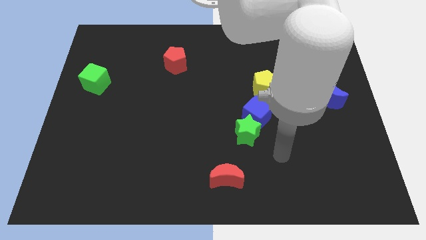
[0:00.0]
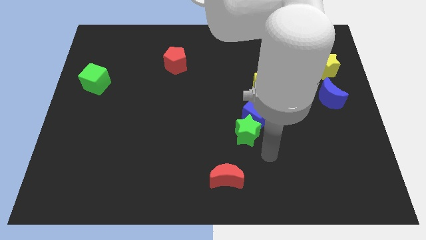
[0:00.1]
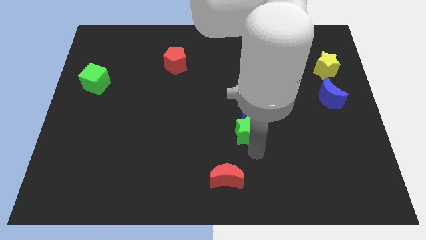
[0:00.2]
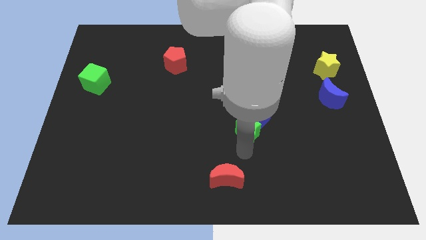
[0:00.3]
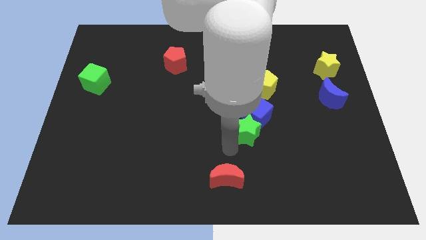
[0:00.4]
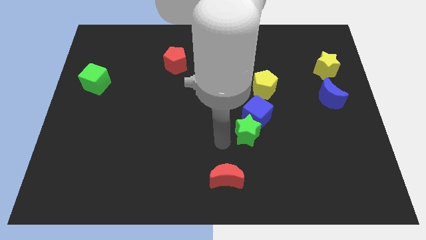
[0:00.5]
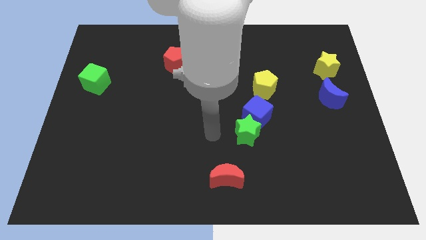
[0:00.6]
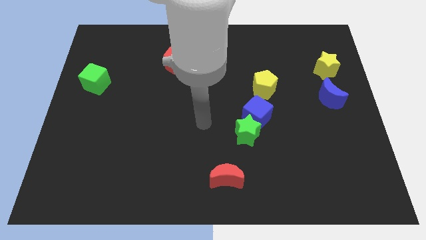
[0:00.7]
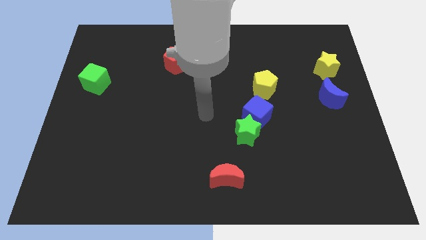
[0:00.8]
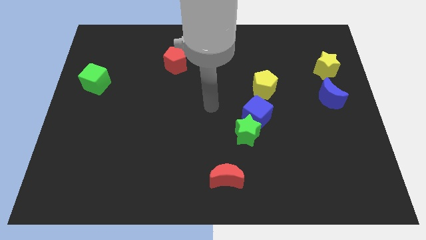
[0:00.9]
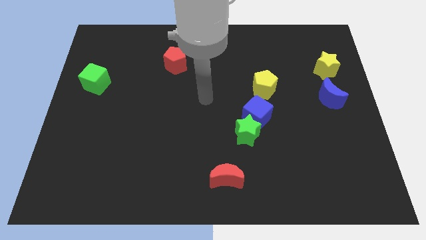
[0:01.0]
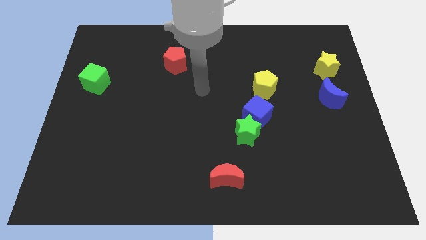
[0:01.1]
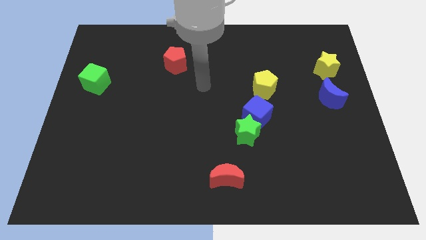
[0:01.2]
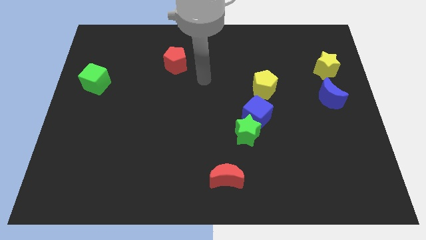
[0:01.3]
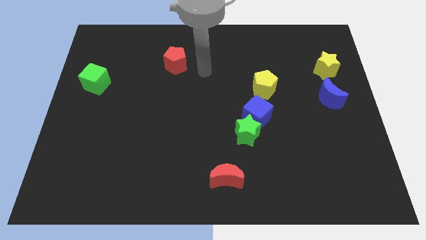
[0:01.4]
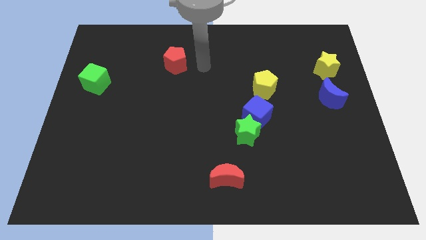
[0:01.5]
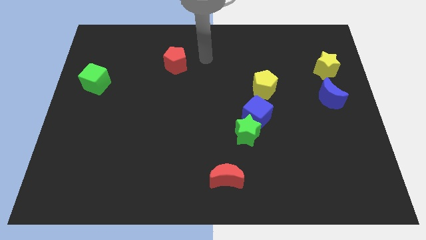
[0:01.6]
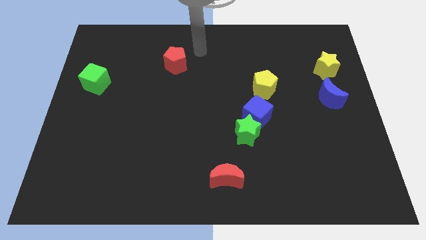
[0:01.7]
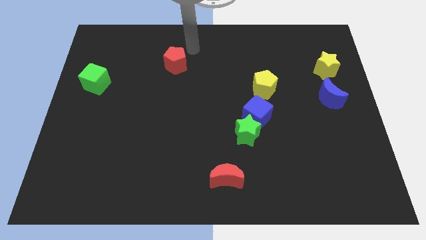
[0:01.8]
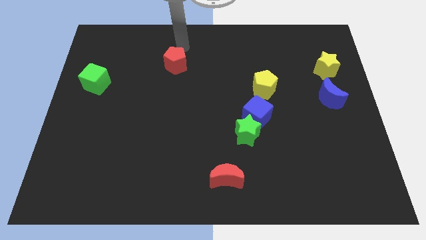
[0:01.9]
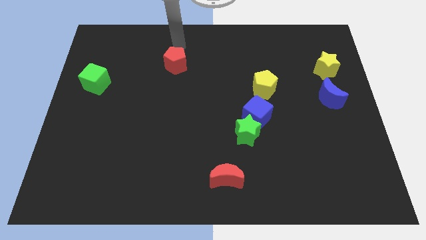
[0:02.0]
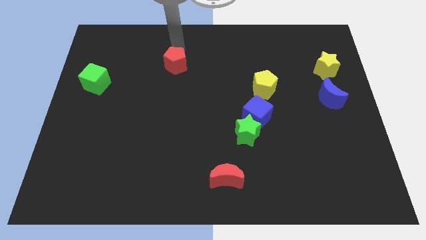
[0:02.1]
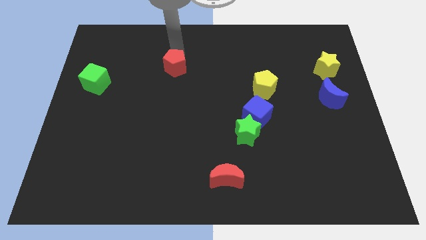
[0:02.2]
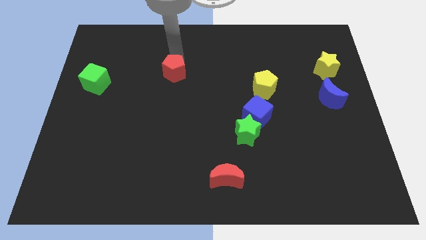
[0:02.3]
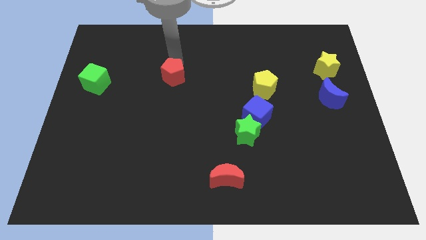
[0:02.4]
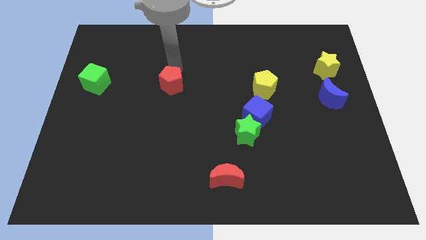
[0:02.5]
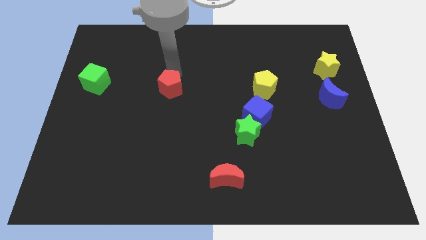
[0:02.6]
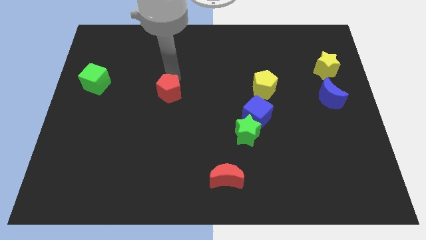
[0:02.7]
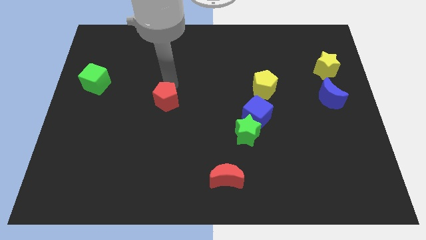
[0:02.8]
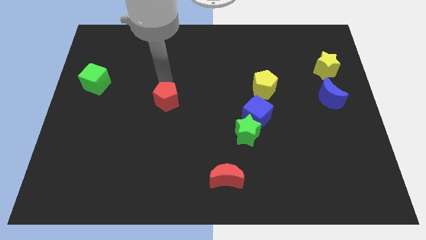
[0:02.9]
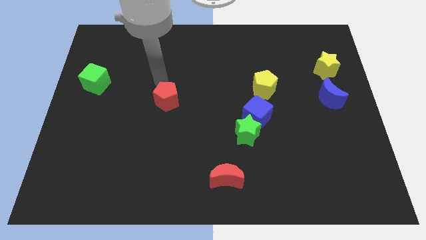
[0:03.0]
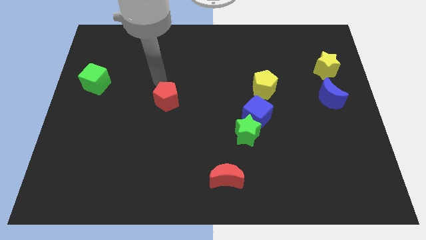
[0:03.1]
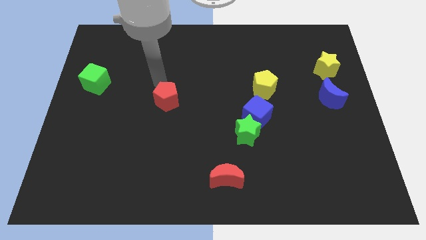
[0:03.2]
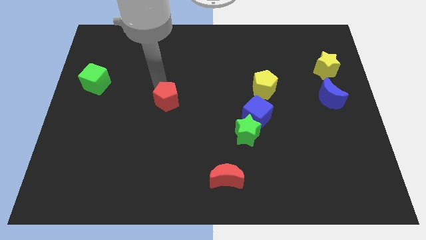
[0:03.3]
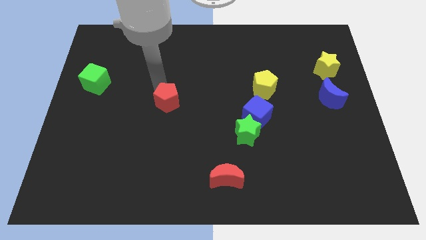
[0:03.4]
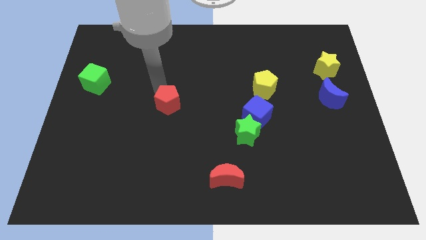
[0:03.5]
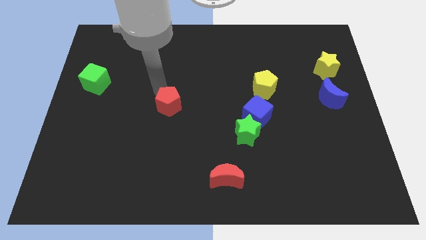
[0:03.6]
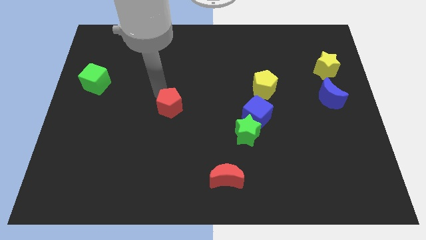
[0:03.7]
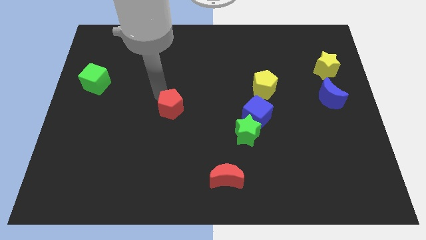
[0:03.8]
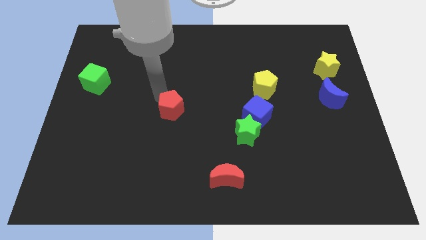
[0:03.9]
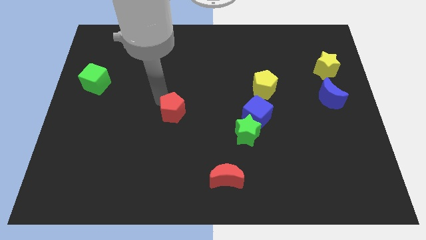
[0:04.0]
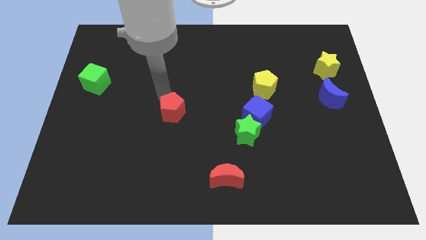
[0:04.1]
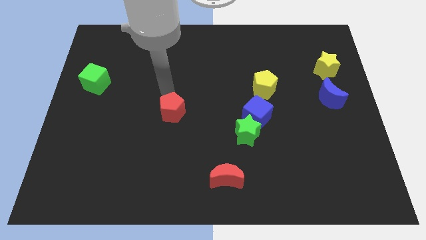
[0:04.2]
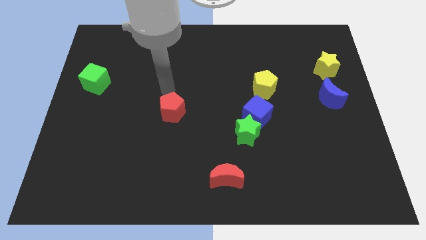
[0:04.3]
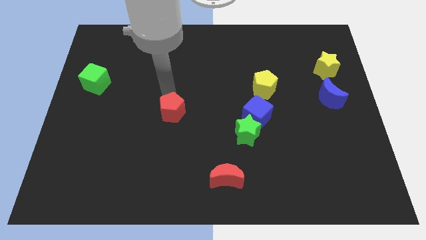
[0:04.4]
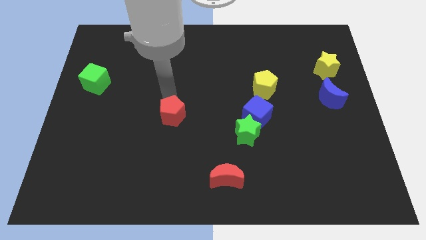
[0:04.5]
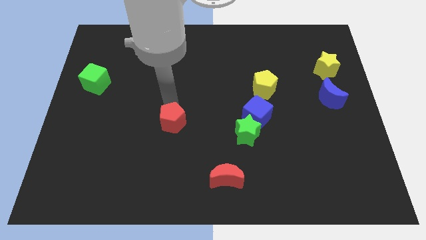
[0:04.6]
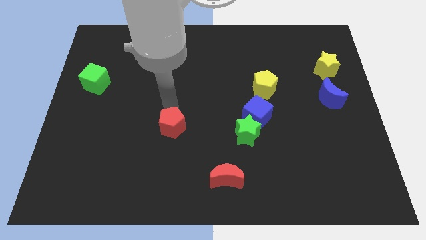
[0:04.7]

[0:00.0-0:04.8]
slide the red pentagon down

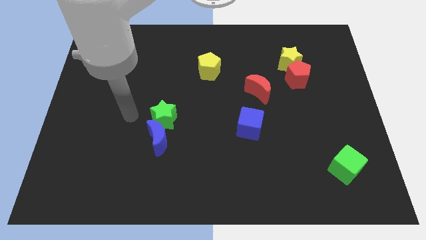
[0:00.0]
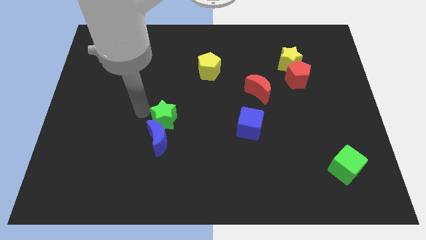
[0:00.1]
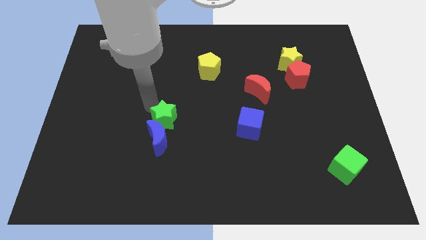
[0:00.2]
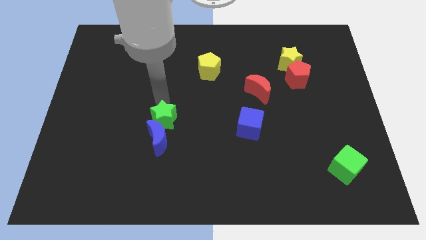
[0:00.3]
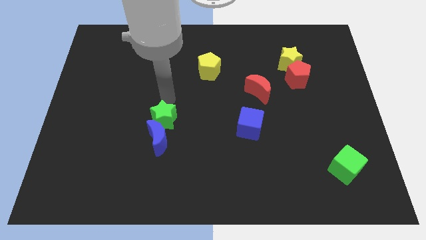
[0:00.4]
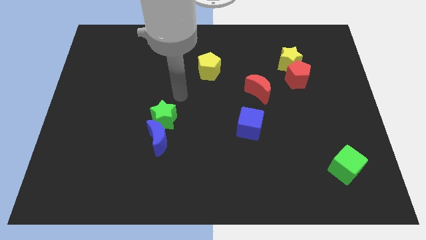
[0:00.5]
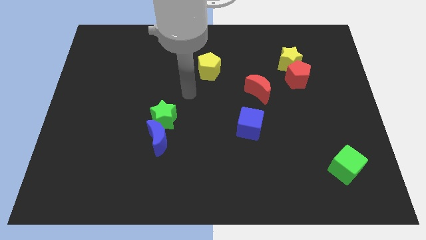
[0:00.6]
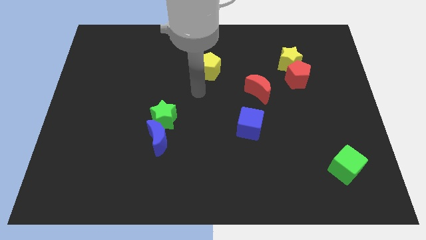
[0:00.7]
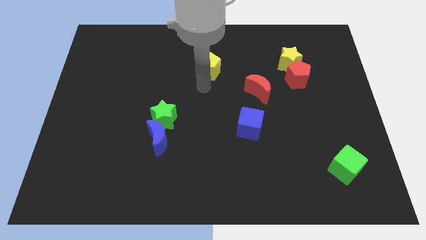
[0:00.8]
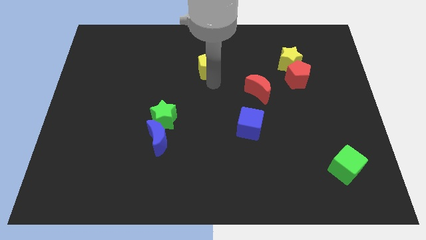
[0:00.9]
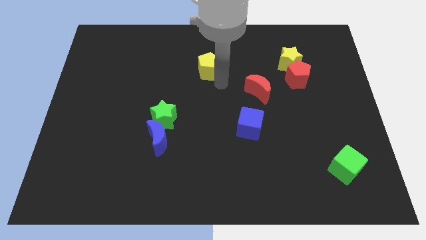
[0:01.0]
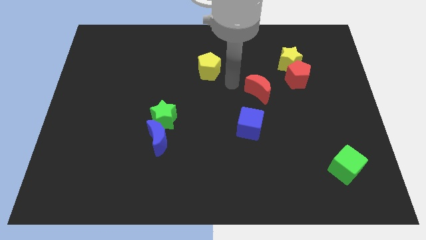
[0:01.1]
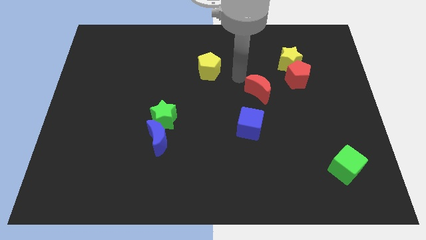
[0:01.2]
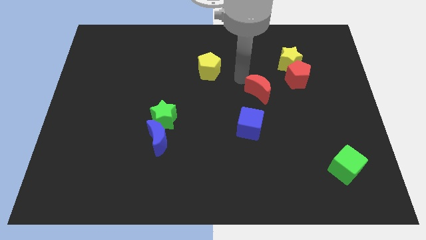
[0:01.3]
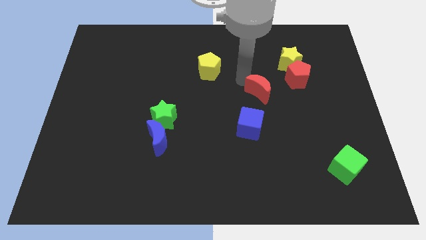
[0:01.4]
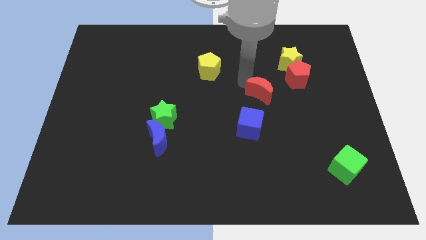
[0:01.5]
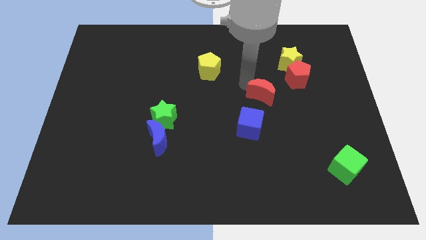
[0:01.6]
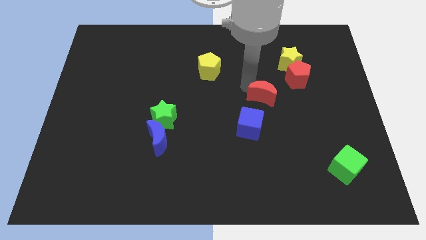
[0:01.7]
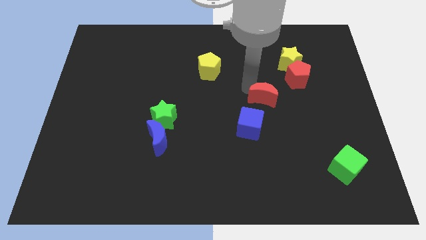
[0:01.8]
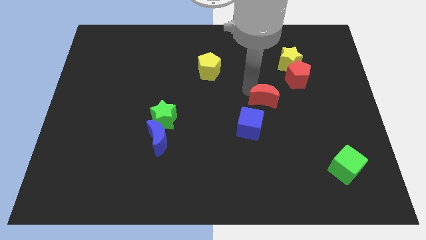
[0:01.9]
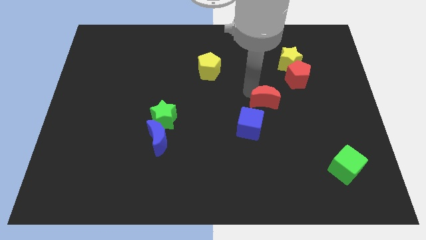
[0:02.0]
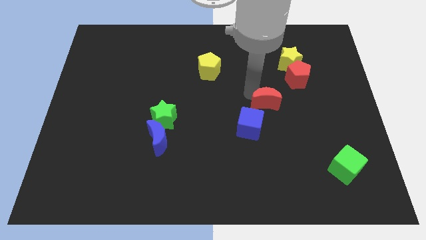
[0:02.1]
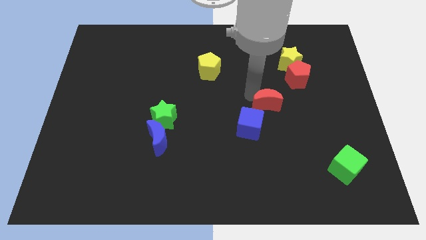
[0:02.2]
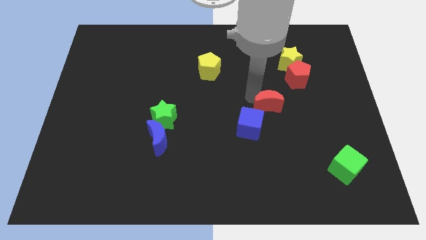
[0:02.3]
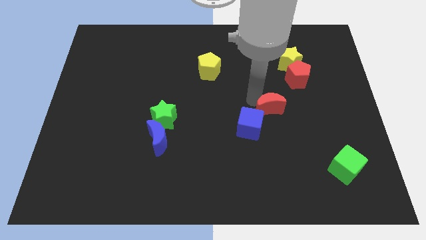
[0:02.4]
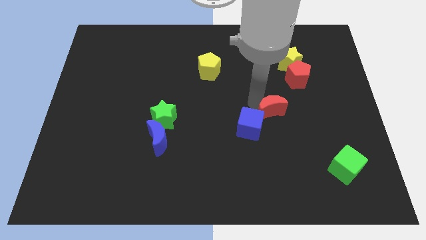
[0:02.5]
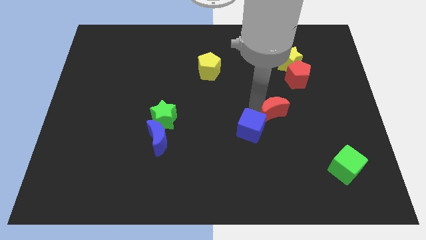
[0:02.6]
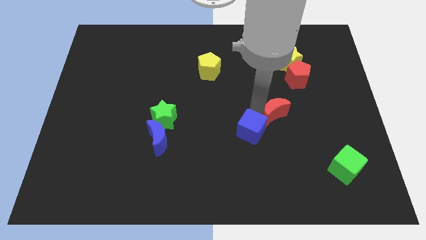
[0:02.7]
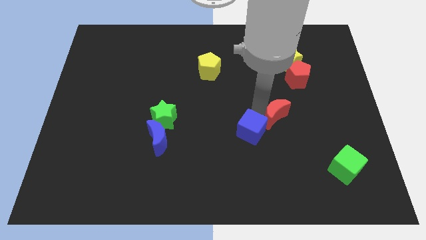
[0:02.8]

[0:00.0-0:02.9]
push the red moon a little downwards and to the right

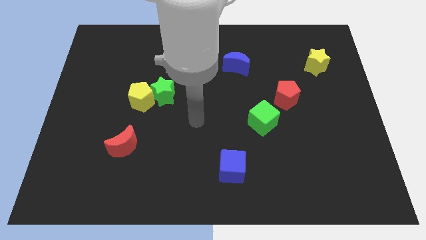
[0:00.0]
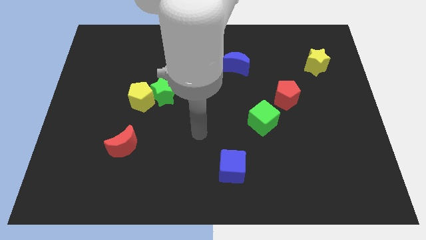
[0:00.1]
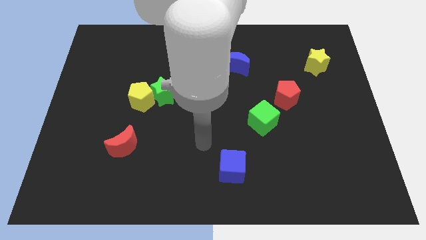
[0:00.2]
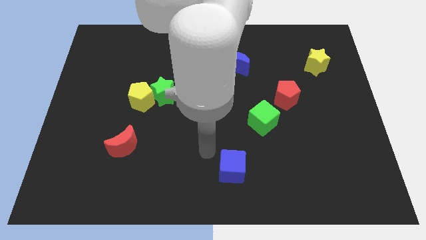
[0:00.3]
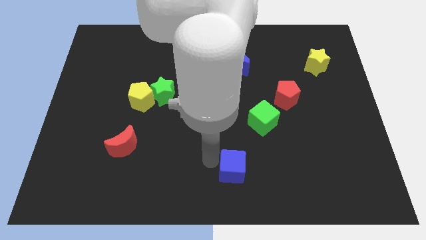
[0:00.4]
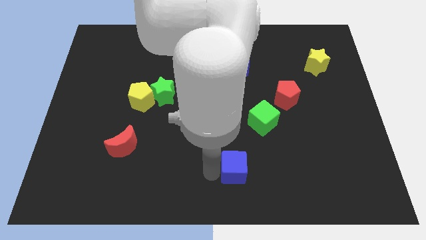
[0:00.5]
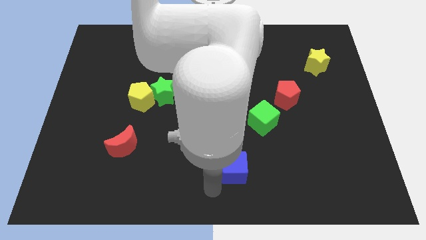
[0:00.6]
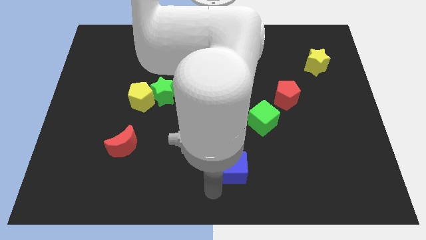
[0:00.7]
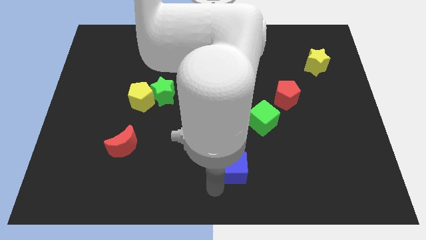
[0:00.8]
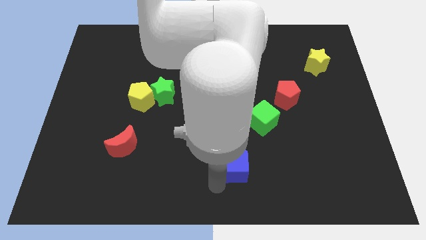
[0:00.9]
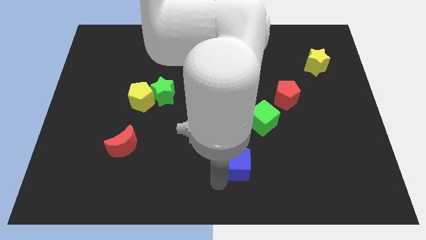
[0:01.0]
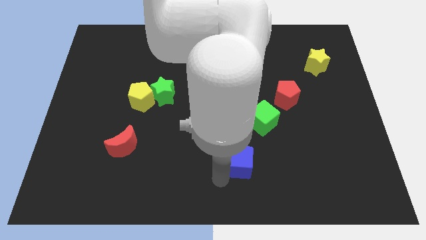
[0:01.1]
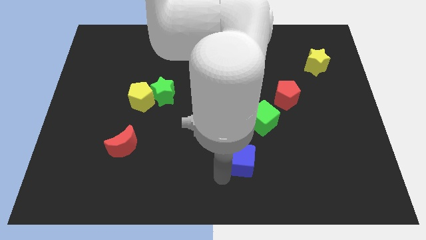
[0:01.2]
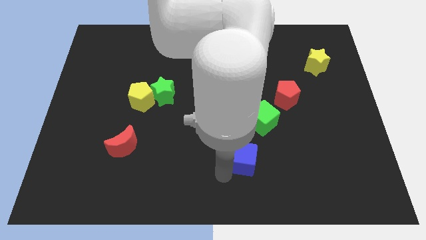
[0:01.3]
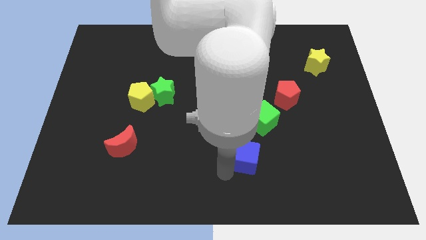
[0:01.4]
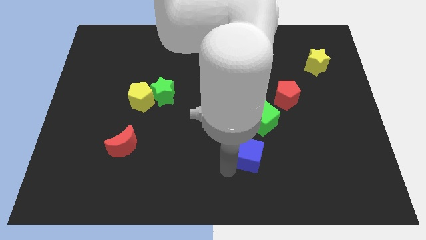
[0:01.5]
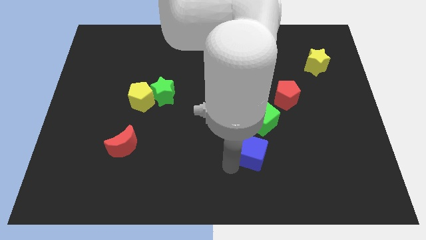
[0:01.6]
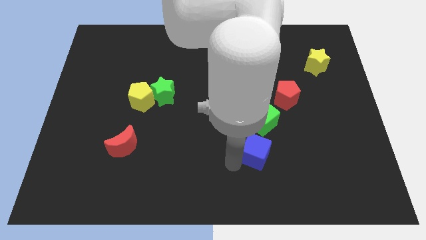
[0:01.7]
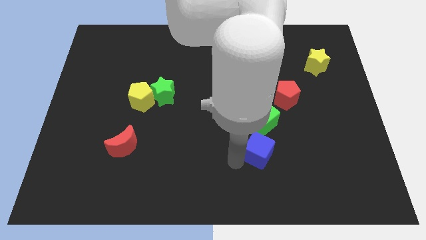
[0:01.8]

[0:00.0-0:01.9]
slide the blue cube a little up and then right
